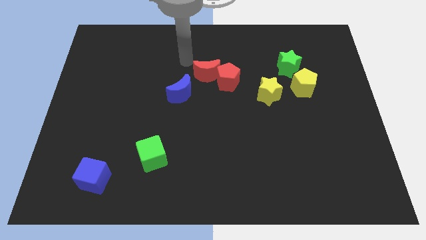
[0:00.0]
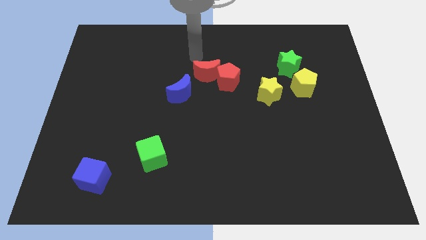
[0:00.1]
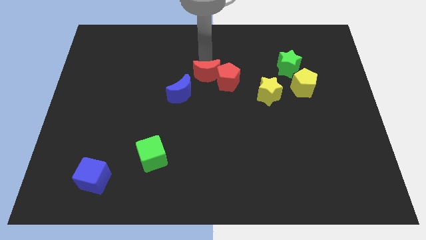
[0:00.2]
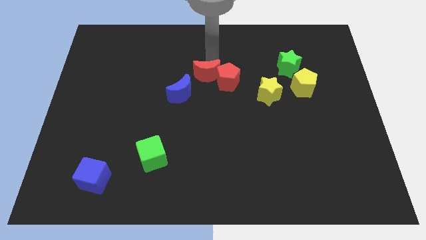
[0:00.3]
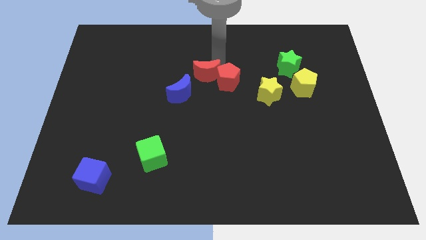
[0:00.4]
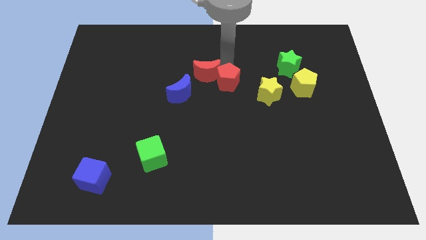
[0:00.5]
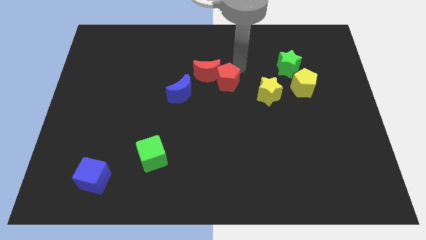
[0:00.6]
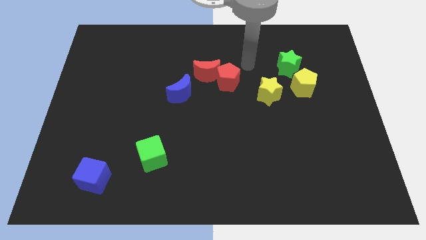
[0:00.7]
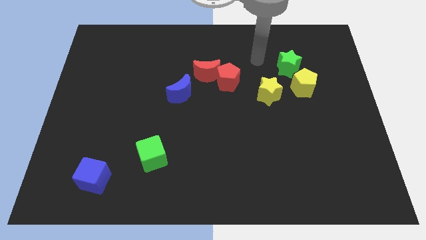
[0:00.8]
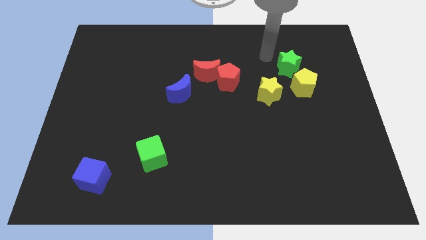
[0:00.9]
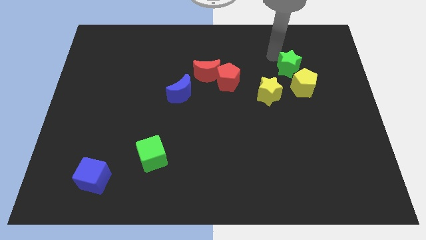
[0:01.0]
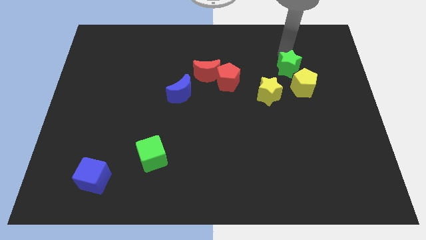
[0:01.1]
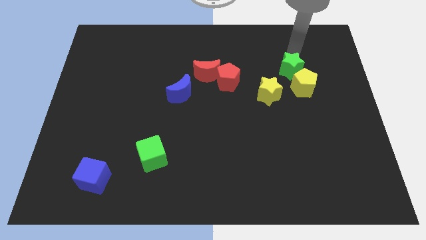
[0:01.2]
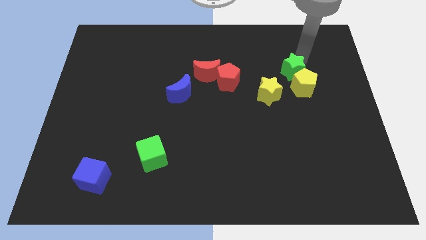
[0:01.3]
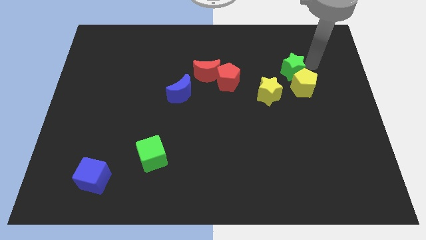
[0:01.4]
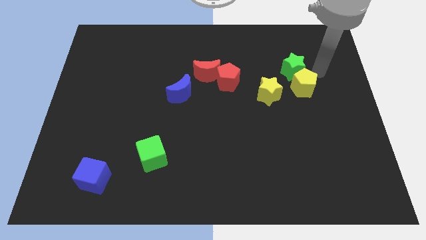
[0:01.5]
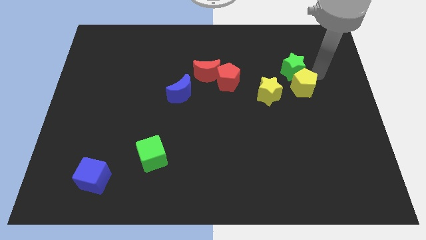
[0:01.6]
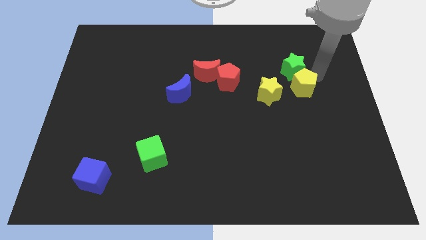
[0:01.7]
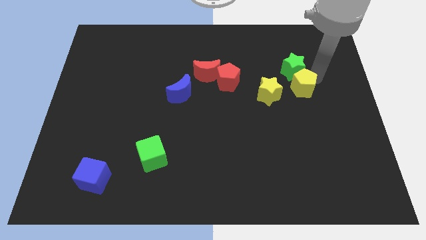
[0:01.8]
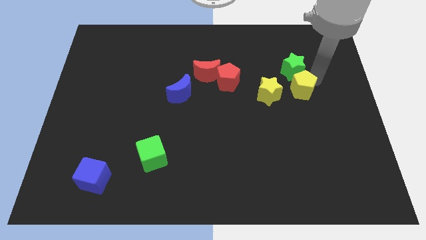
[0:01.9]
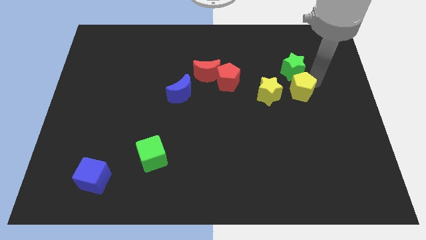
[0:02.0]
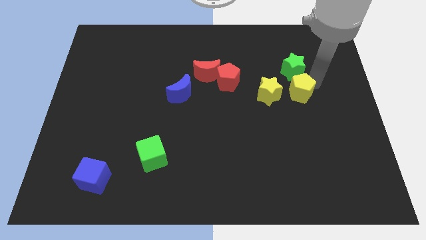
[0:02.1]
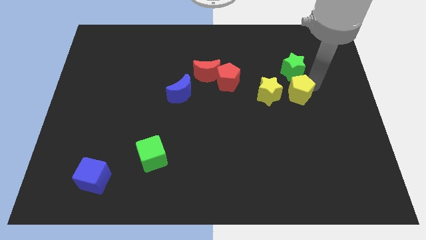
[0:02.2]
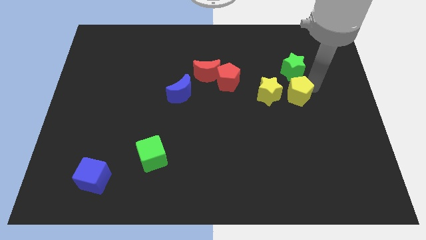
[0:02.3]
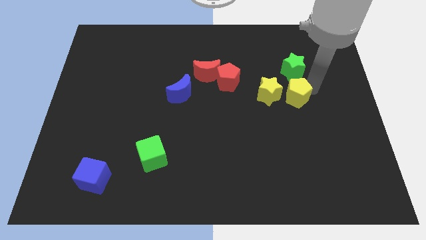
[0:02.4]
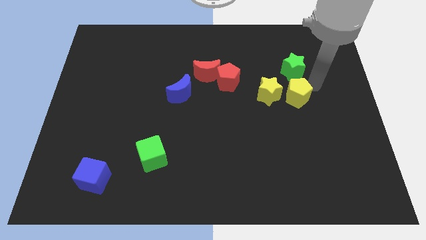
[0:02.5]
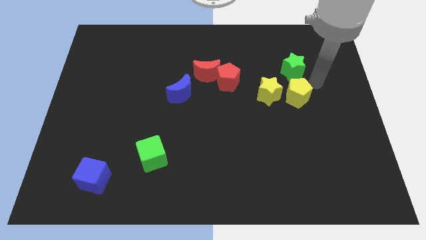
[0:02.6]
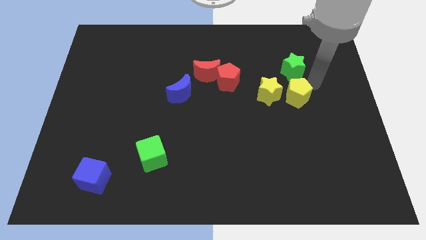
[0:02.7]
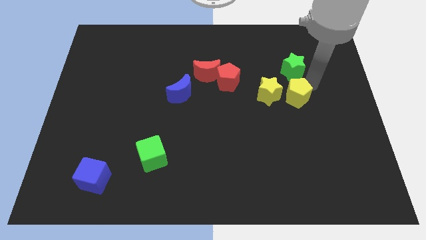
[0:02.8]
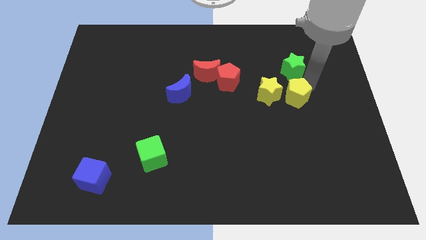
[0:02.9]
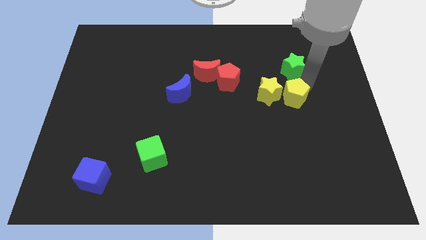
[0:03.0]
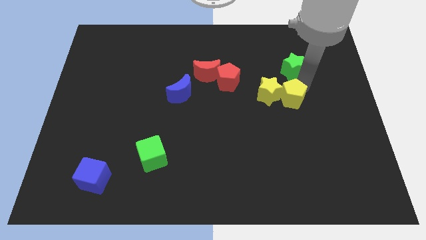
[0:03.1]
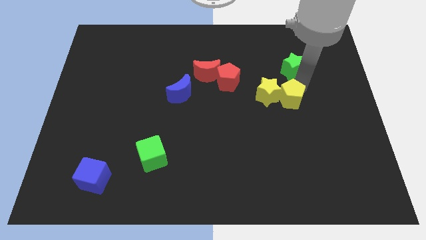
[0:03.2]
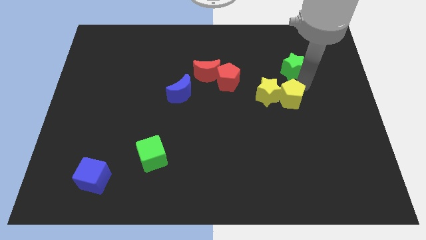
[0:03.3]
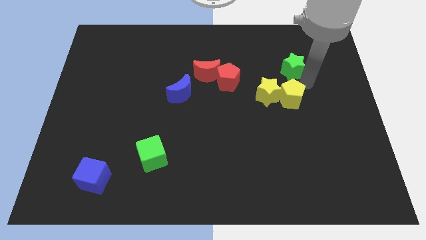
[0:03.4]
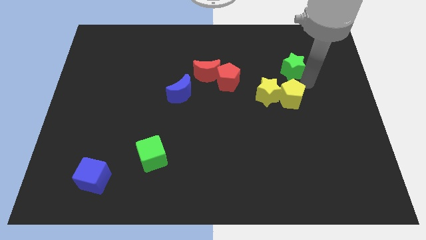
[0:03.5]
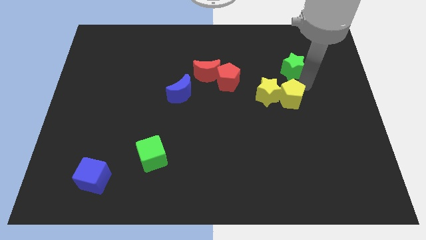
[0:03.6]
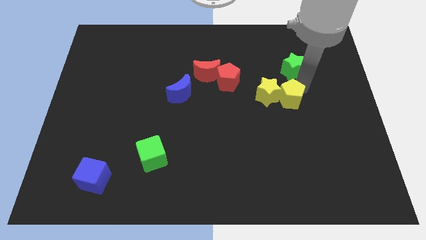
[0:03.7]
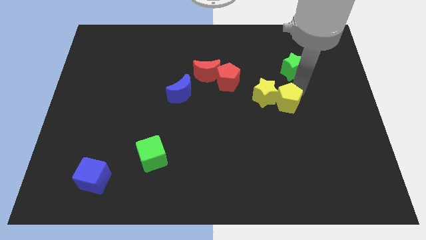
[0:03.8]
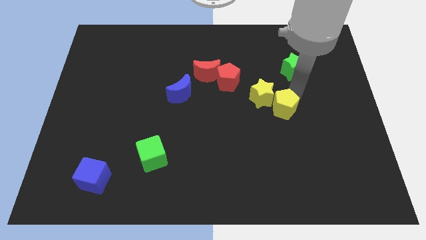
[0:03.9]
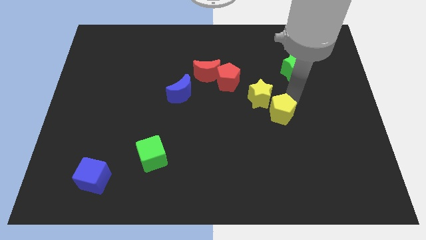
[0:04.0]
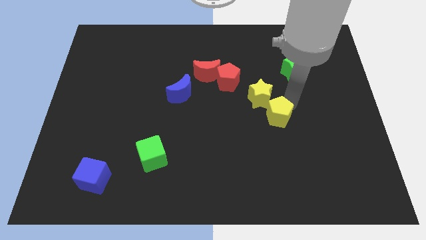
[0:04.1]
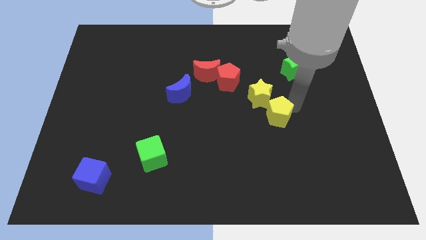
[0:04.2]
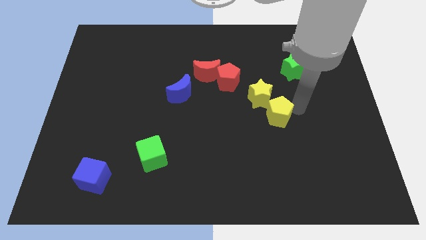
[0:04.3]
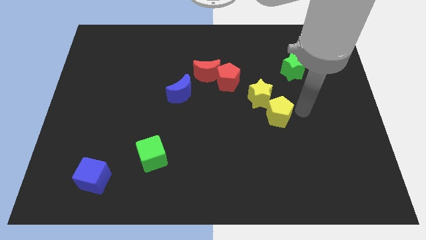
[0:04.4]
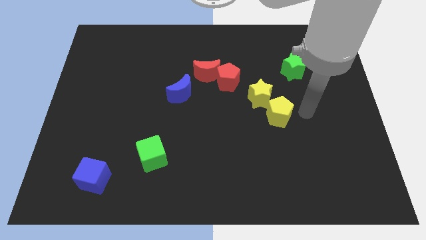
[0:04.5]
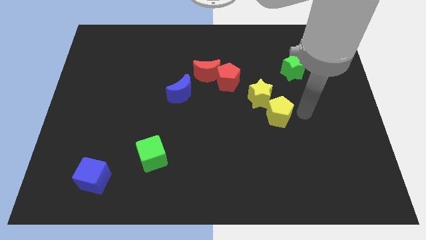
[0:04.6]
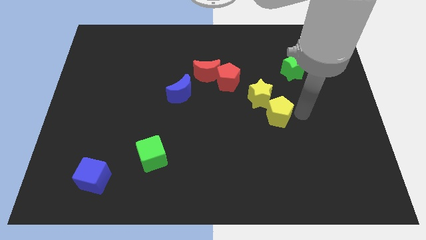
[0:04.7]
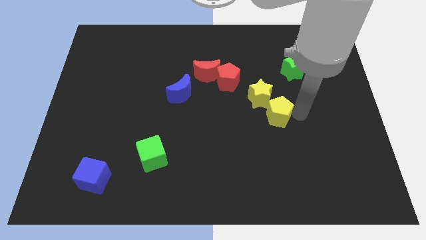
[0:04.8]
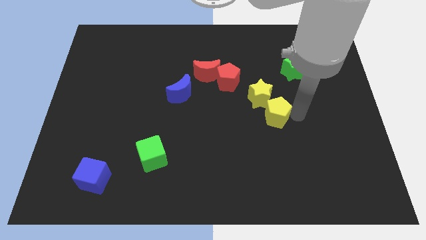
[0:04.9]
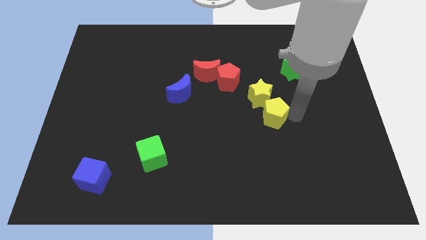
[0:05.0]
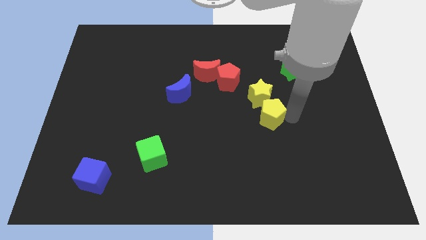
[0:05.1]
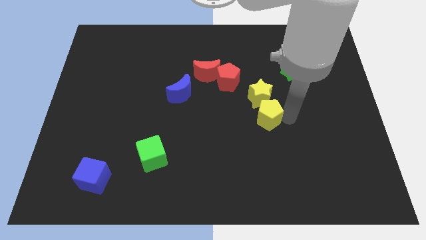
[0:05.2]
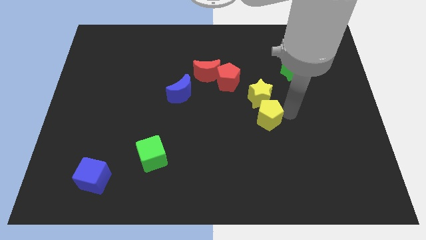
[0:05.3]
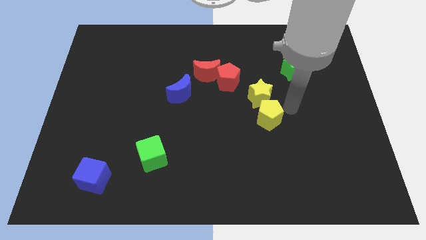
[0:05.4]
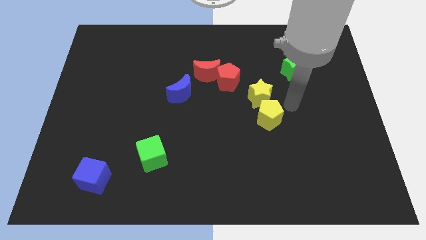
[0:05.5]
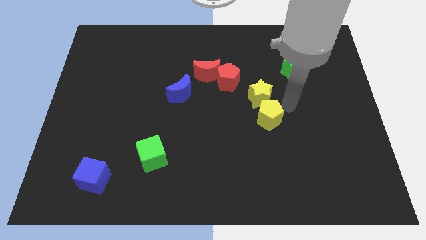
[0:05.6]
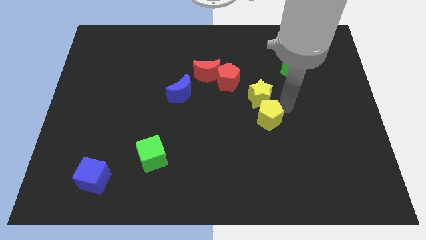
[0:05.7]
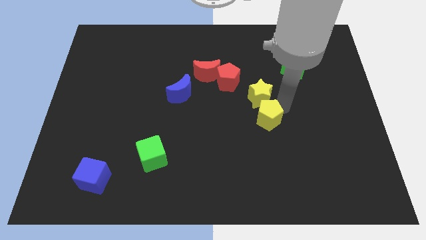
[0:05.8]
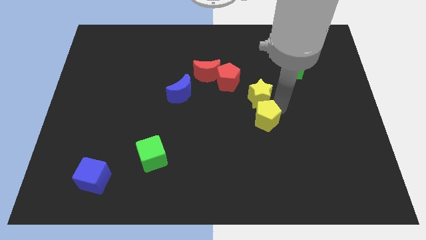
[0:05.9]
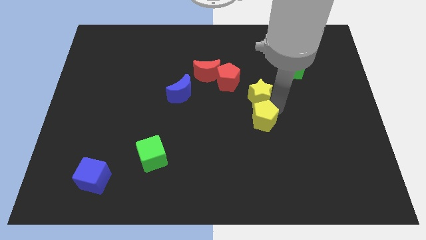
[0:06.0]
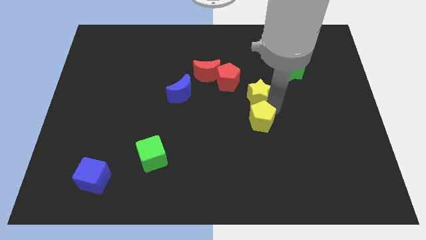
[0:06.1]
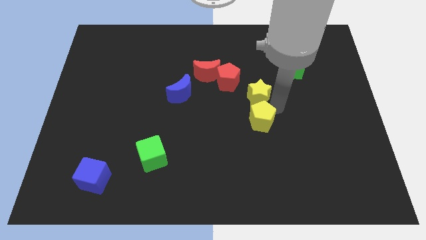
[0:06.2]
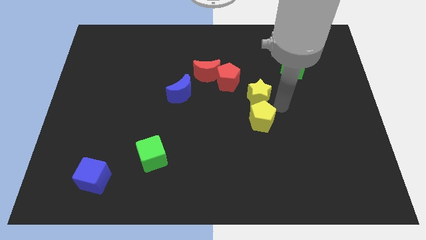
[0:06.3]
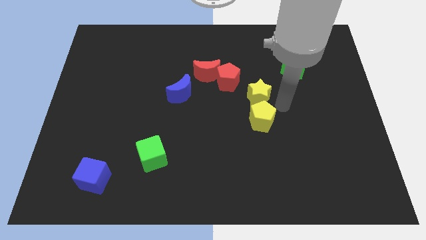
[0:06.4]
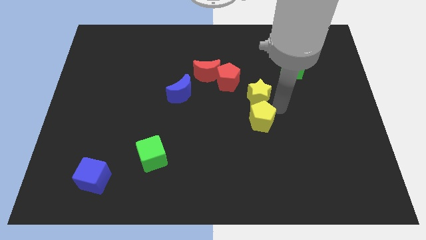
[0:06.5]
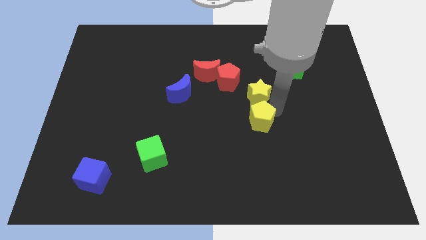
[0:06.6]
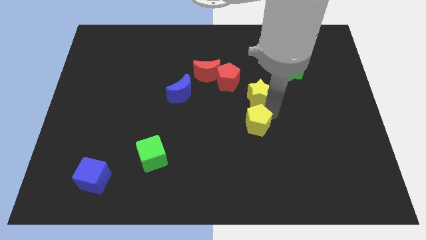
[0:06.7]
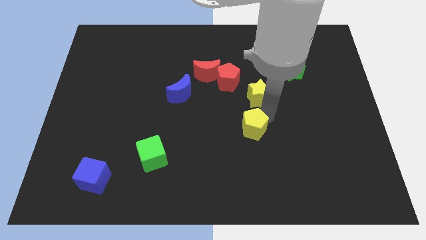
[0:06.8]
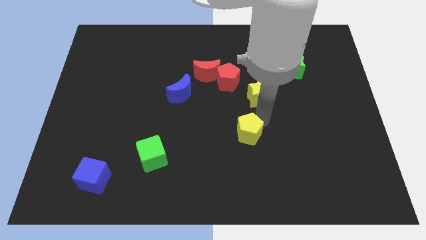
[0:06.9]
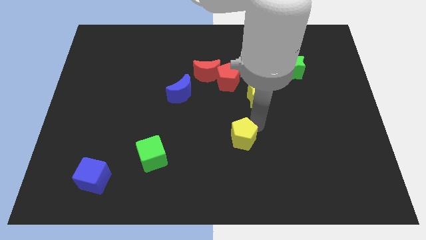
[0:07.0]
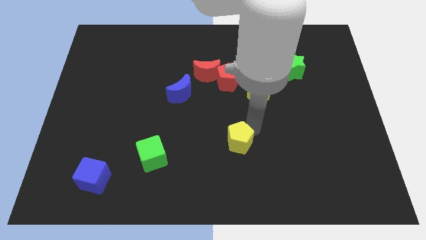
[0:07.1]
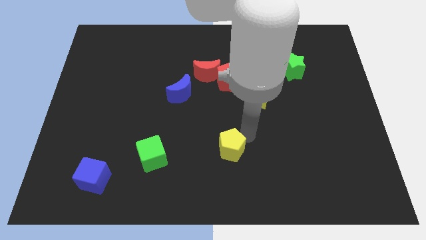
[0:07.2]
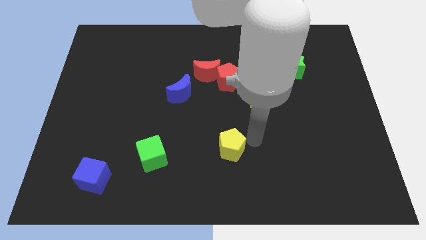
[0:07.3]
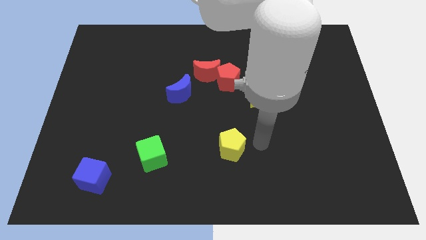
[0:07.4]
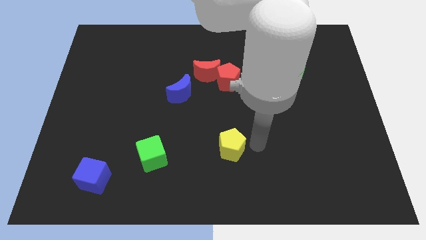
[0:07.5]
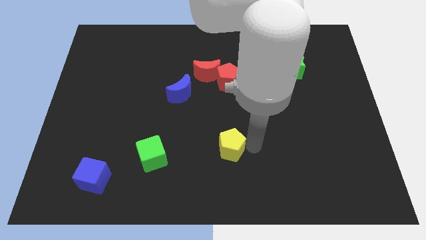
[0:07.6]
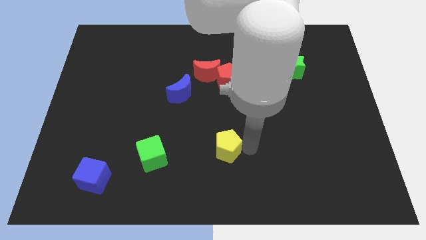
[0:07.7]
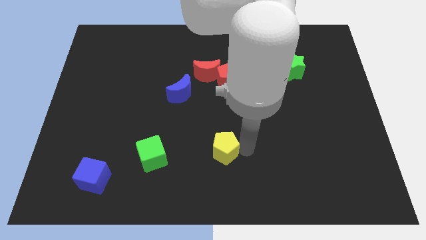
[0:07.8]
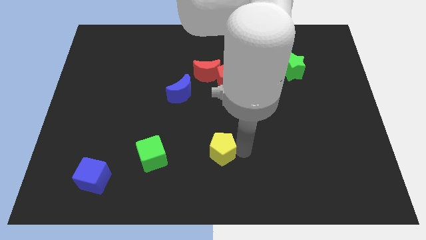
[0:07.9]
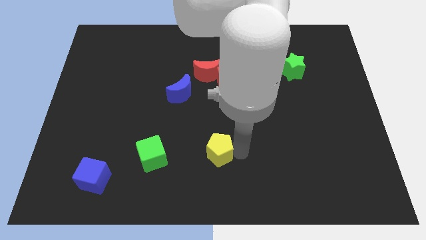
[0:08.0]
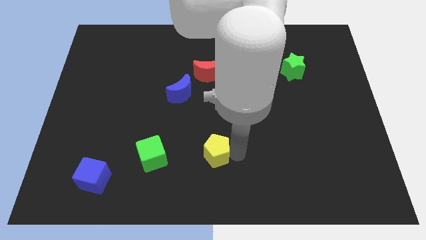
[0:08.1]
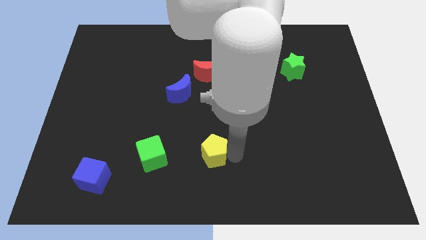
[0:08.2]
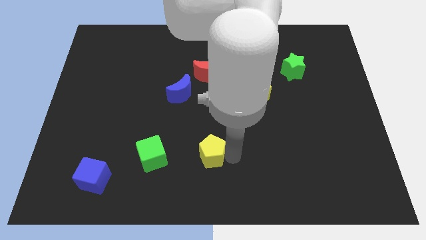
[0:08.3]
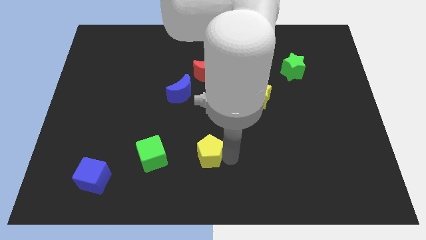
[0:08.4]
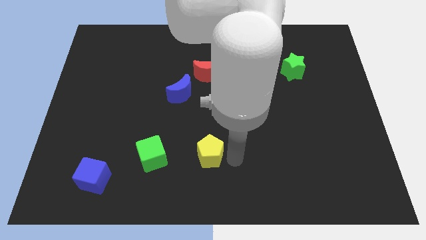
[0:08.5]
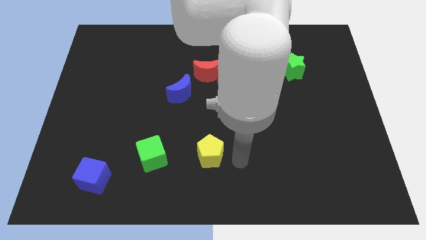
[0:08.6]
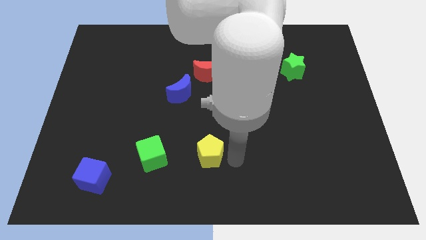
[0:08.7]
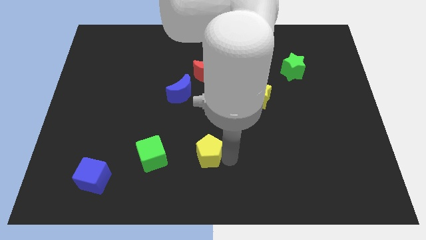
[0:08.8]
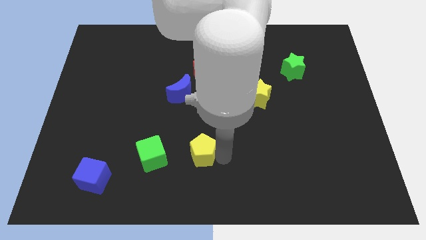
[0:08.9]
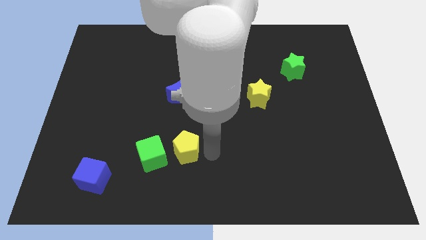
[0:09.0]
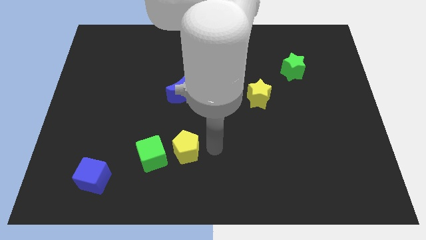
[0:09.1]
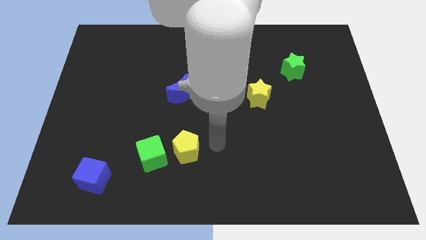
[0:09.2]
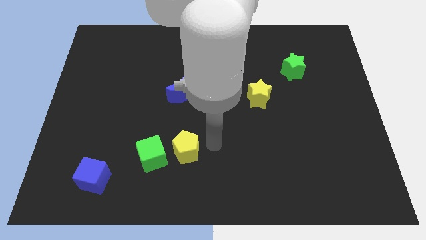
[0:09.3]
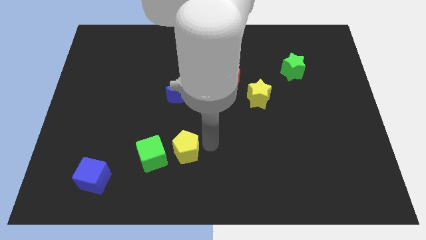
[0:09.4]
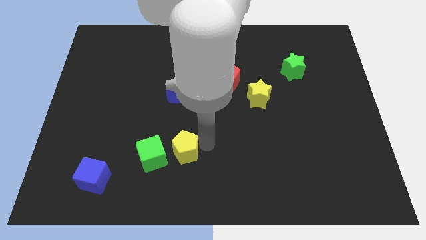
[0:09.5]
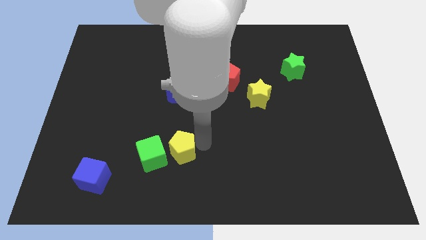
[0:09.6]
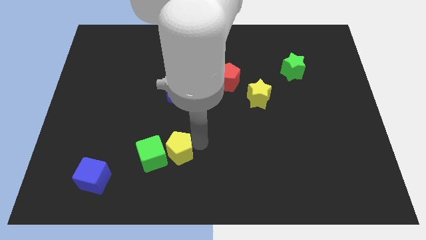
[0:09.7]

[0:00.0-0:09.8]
slide the yellow pentagon to the green cube
